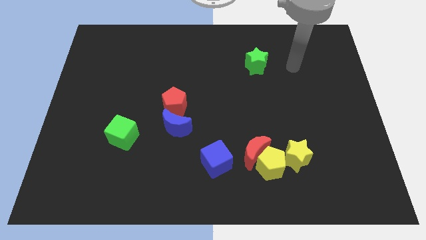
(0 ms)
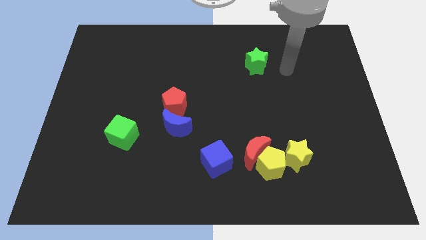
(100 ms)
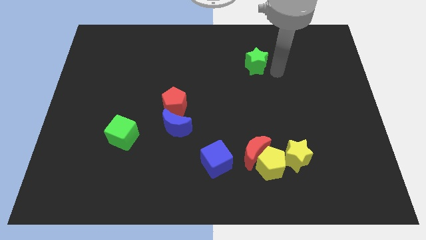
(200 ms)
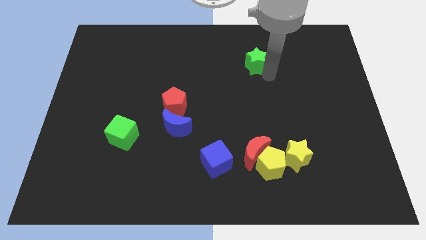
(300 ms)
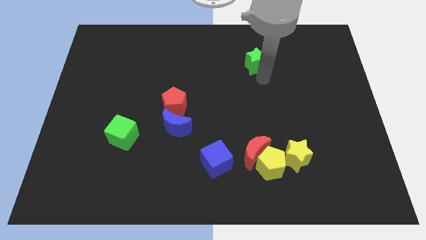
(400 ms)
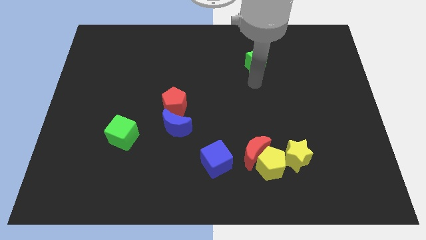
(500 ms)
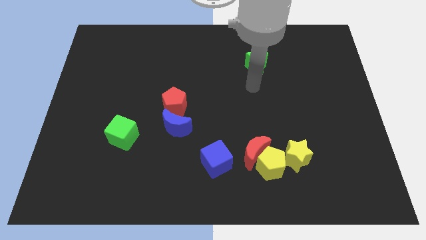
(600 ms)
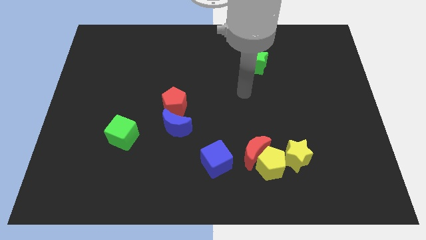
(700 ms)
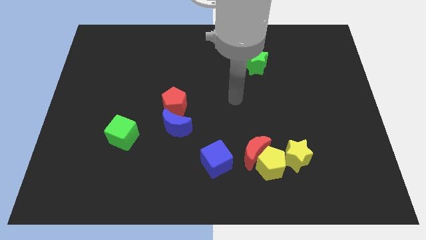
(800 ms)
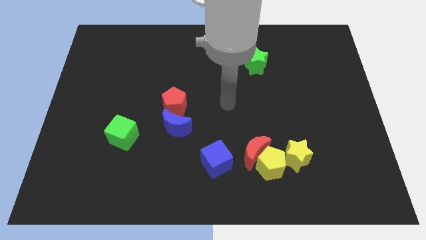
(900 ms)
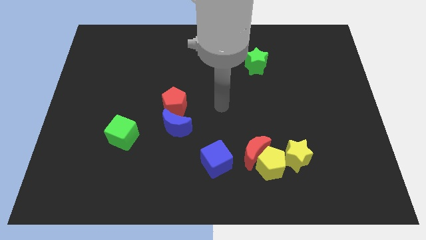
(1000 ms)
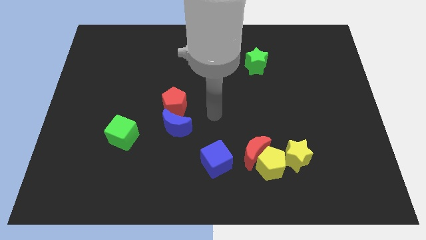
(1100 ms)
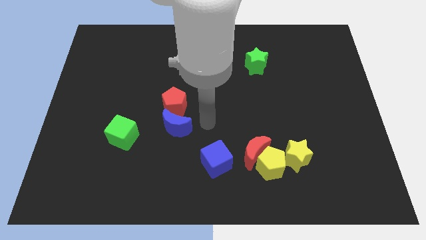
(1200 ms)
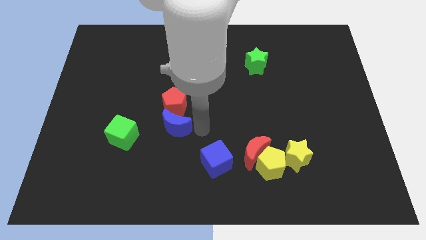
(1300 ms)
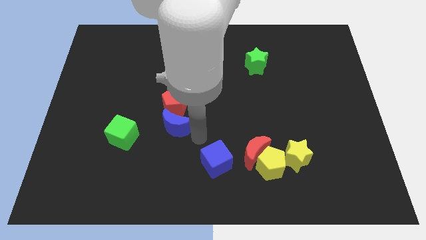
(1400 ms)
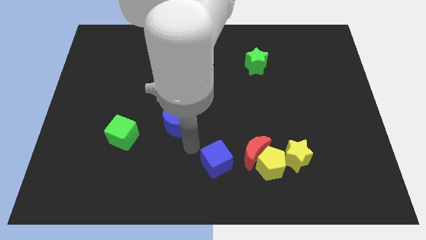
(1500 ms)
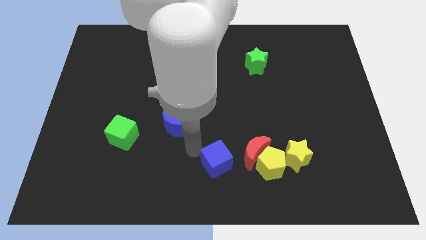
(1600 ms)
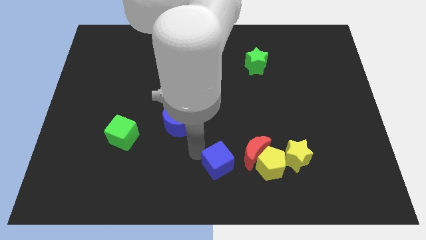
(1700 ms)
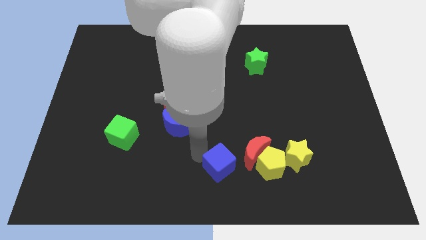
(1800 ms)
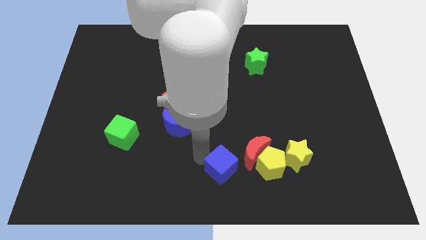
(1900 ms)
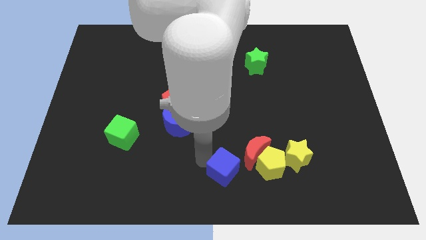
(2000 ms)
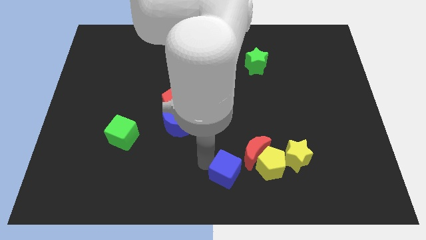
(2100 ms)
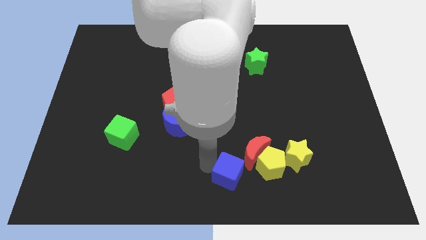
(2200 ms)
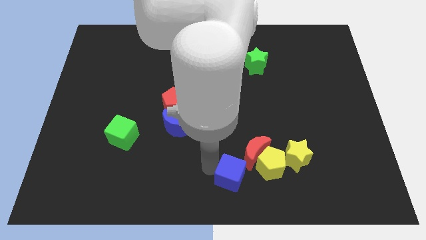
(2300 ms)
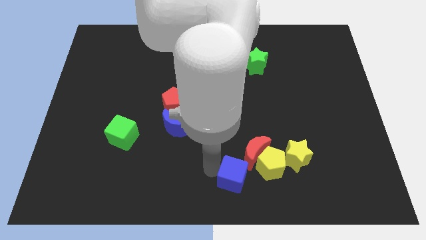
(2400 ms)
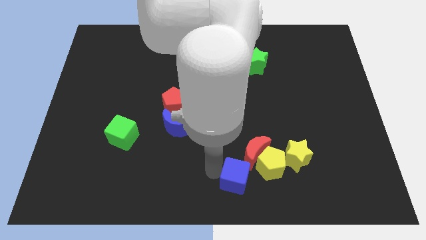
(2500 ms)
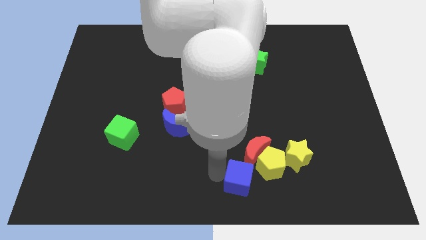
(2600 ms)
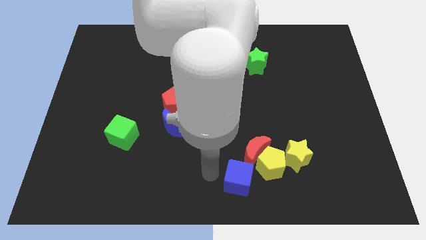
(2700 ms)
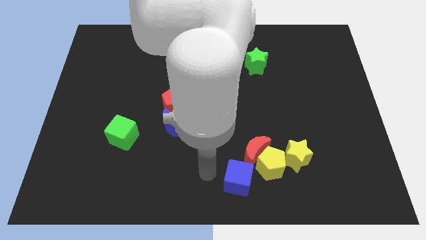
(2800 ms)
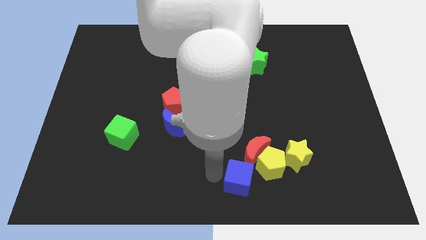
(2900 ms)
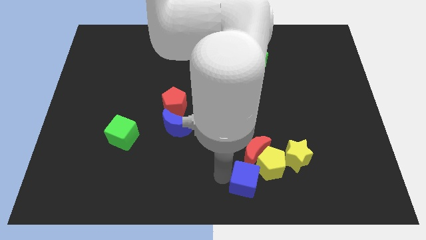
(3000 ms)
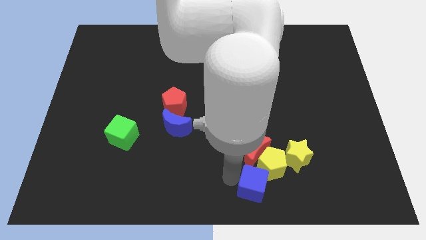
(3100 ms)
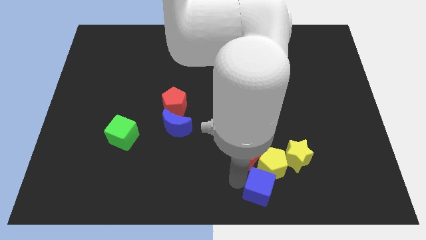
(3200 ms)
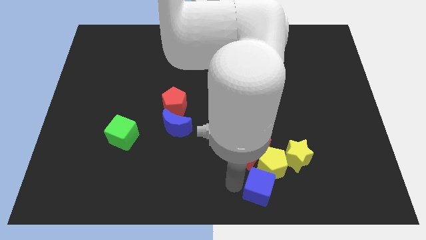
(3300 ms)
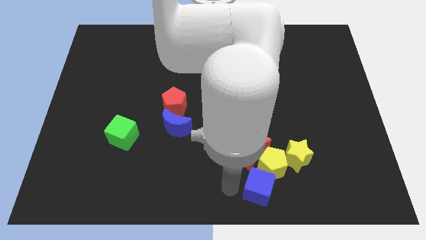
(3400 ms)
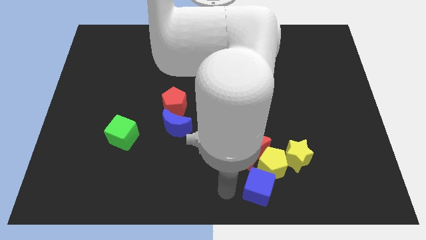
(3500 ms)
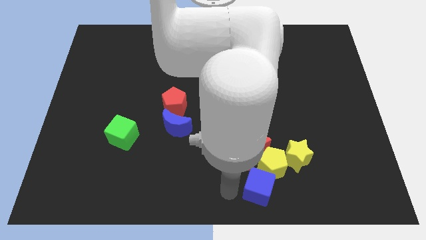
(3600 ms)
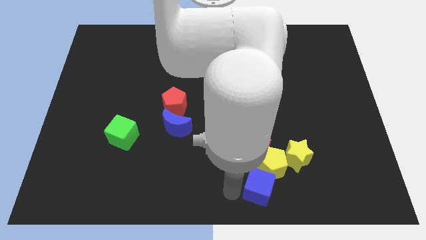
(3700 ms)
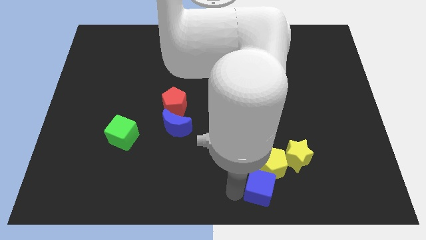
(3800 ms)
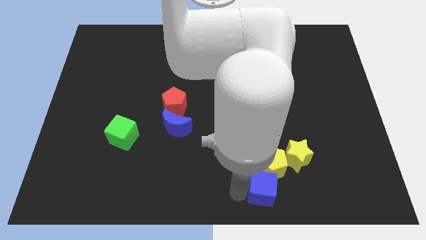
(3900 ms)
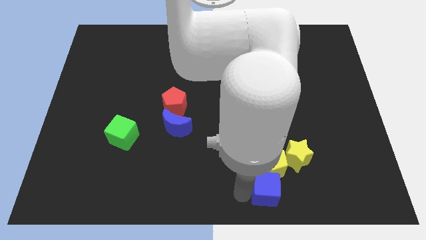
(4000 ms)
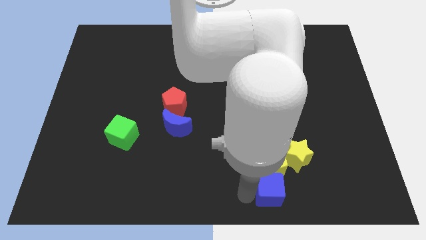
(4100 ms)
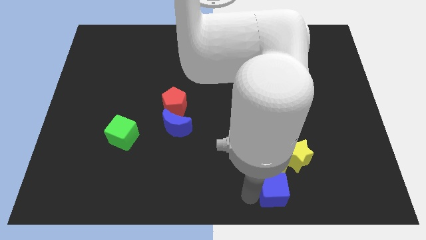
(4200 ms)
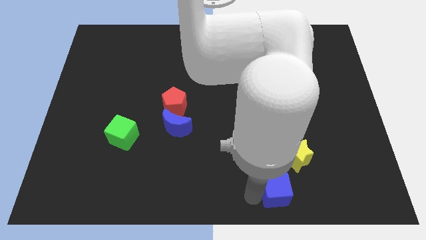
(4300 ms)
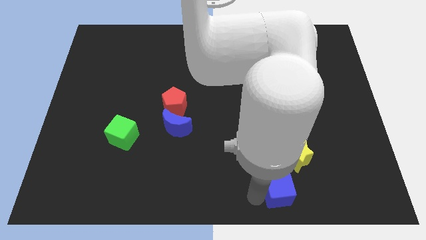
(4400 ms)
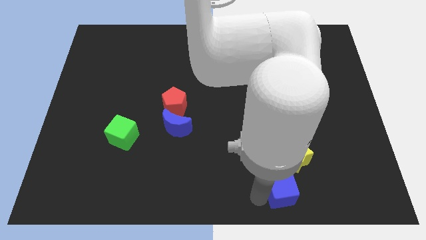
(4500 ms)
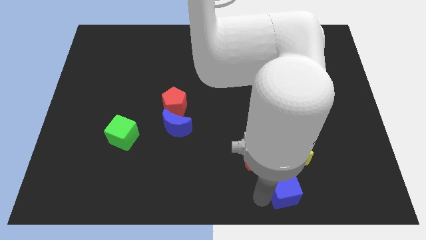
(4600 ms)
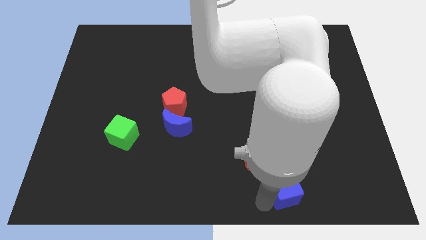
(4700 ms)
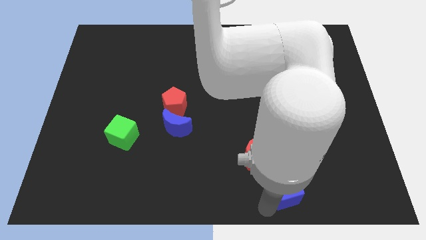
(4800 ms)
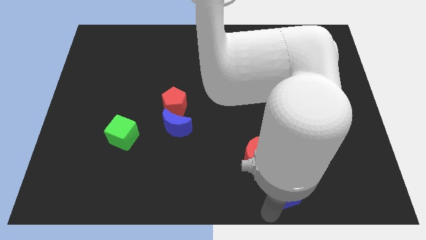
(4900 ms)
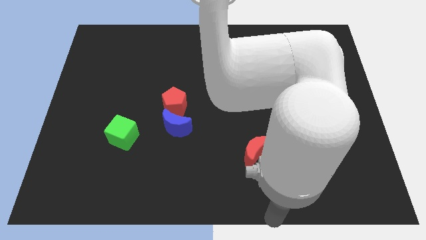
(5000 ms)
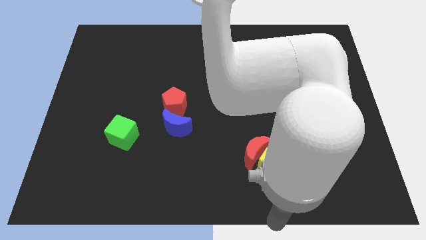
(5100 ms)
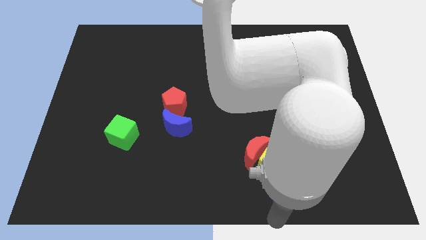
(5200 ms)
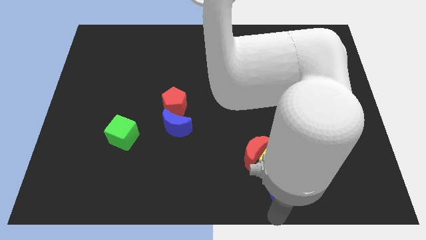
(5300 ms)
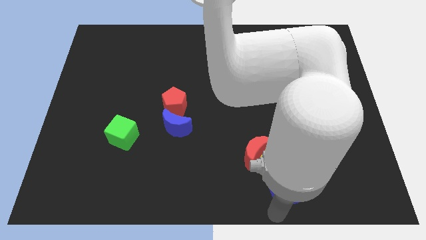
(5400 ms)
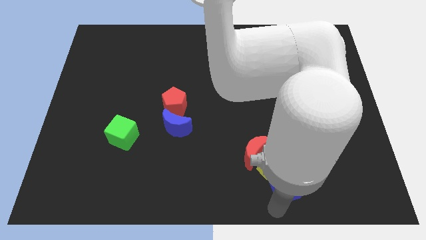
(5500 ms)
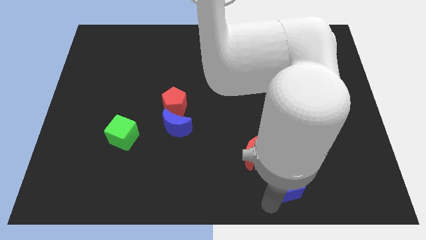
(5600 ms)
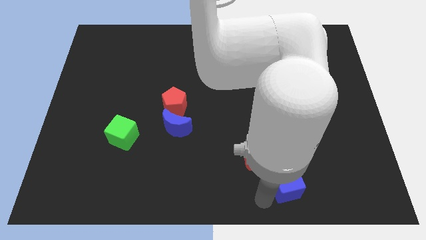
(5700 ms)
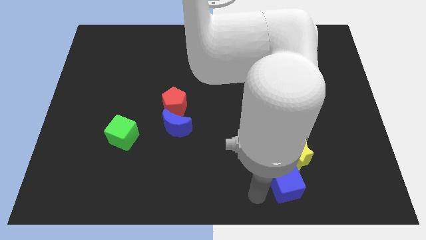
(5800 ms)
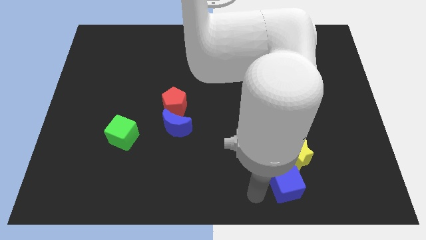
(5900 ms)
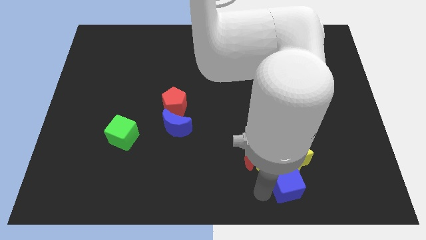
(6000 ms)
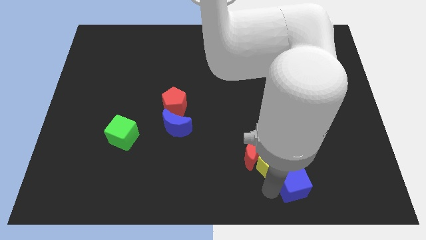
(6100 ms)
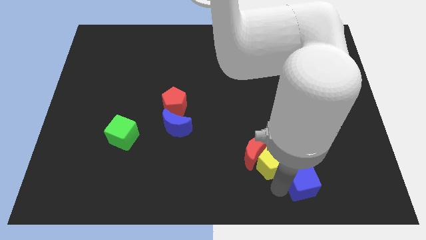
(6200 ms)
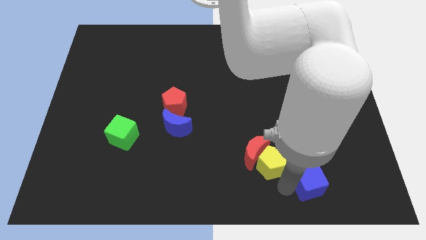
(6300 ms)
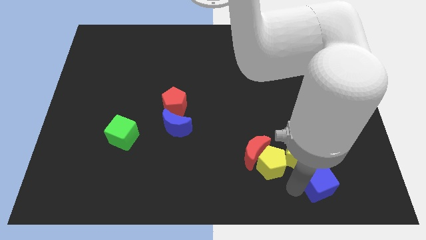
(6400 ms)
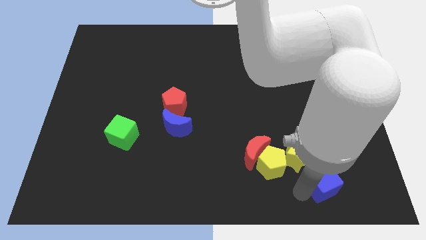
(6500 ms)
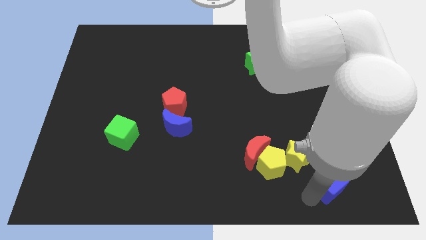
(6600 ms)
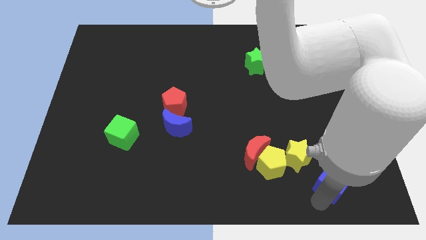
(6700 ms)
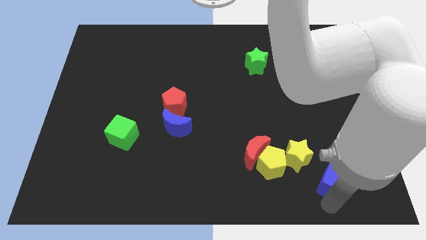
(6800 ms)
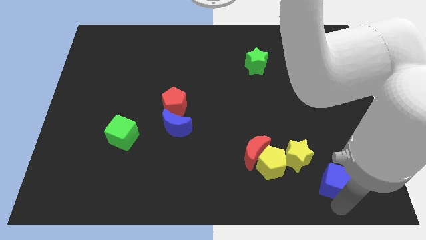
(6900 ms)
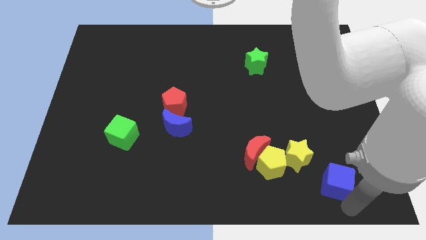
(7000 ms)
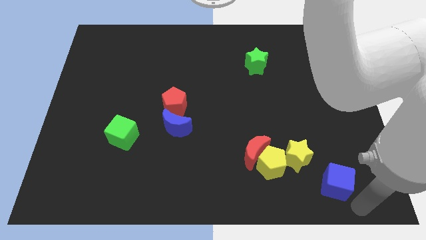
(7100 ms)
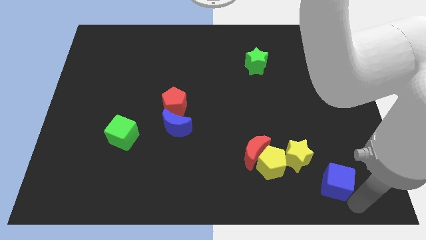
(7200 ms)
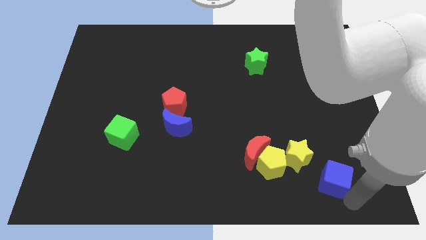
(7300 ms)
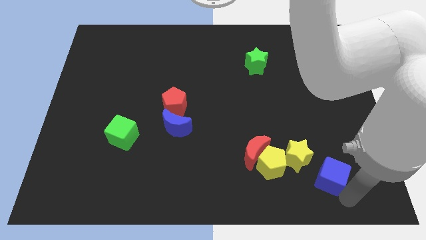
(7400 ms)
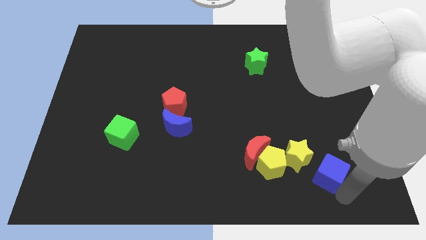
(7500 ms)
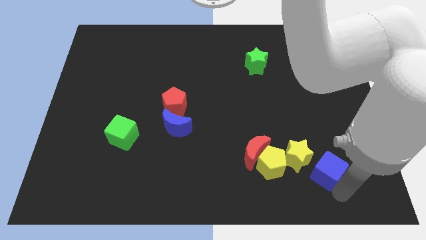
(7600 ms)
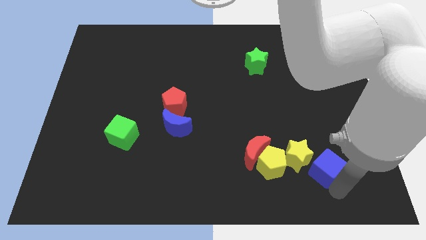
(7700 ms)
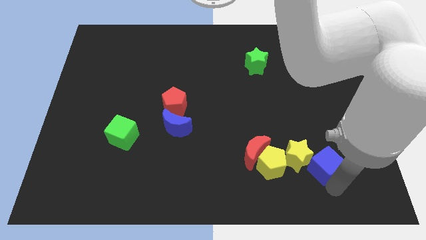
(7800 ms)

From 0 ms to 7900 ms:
slide the blue cube right of the red moon
